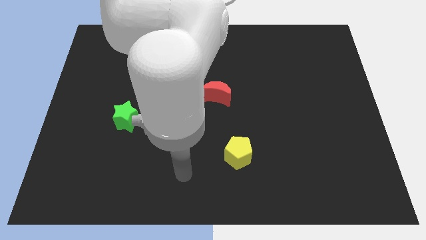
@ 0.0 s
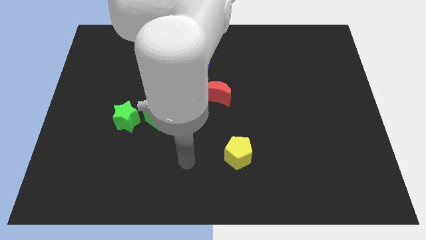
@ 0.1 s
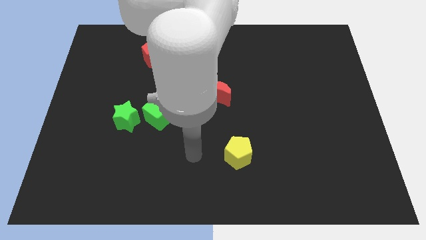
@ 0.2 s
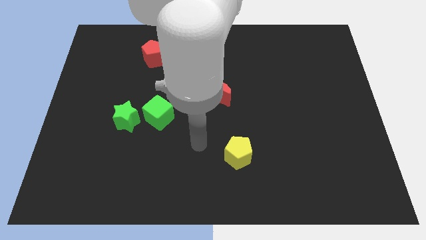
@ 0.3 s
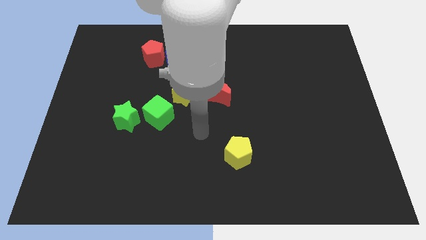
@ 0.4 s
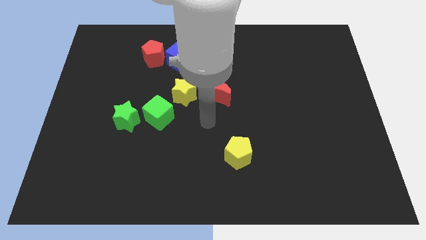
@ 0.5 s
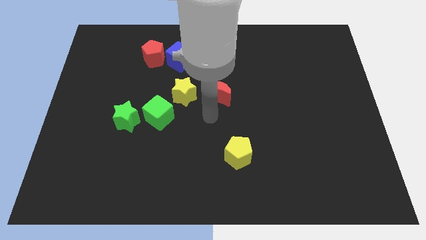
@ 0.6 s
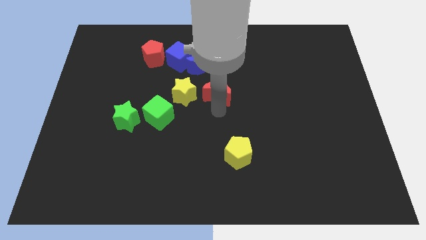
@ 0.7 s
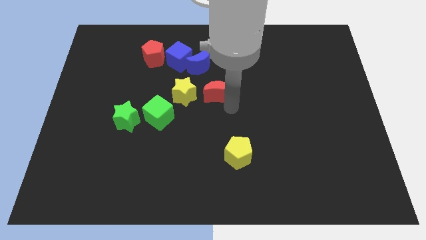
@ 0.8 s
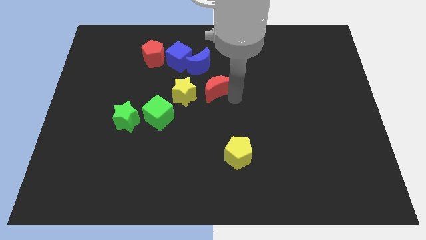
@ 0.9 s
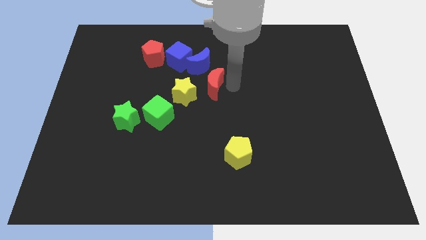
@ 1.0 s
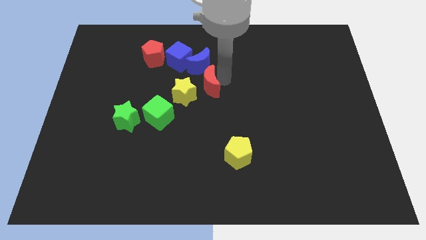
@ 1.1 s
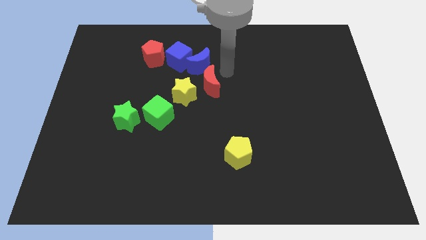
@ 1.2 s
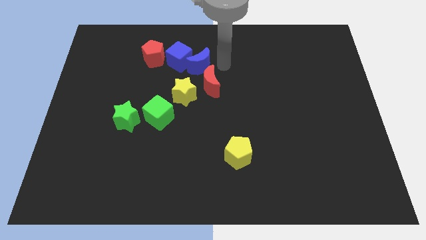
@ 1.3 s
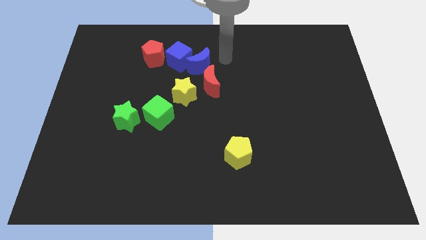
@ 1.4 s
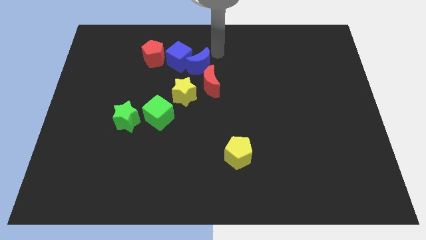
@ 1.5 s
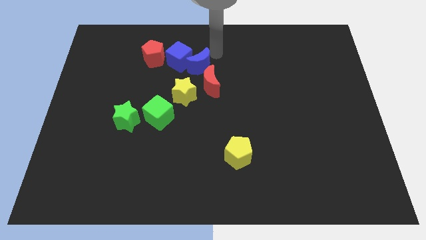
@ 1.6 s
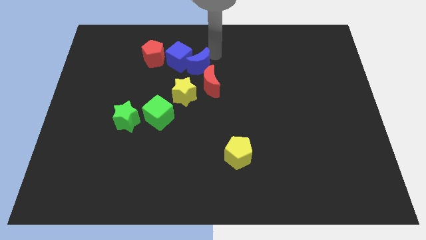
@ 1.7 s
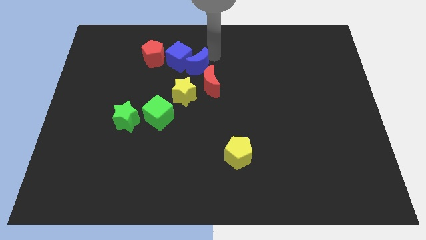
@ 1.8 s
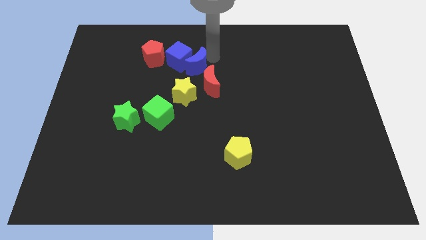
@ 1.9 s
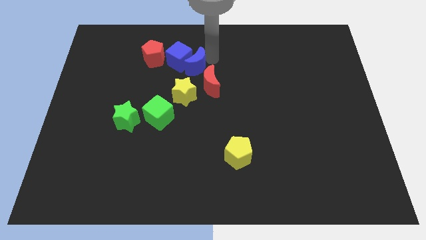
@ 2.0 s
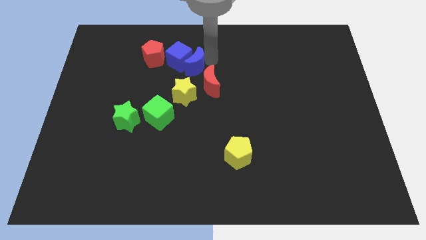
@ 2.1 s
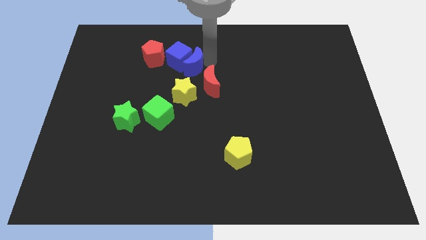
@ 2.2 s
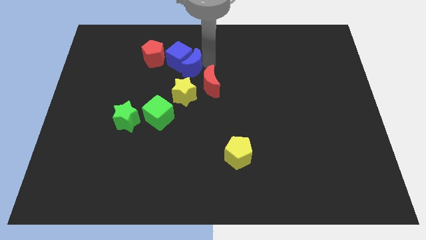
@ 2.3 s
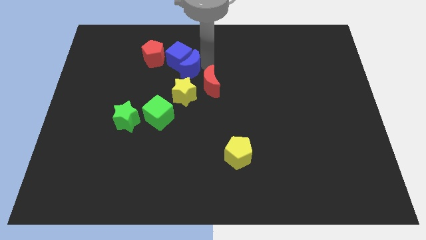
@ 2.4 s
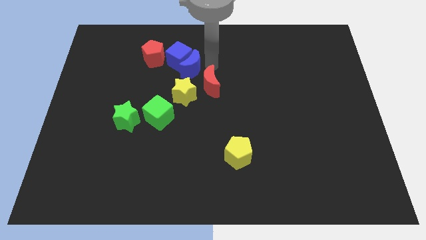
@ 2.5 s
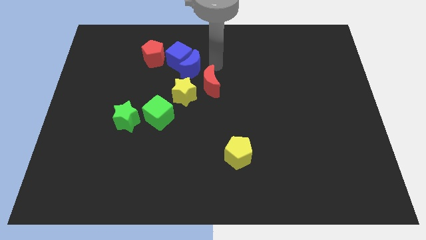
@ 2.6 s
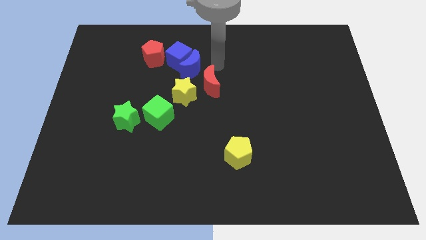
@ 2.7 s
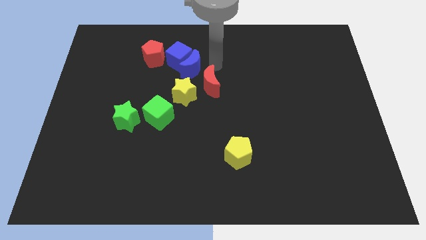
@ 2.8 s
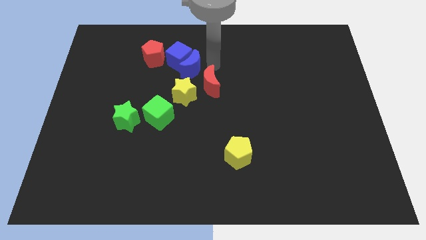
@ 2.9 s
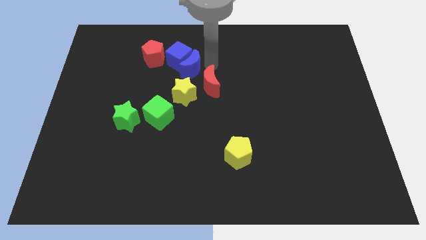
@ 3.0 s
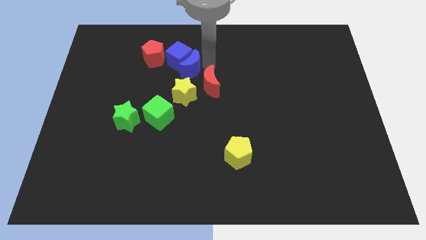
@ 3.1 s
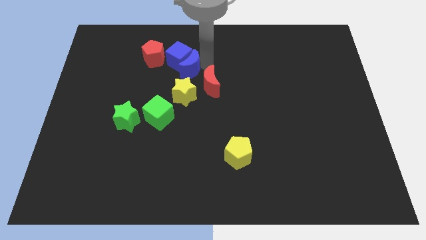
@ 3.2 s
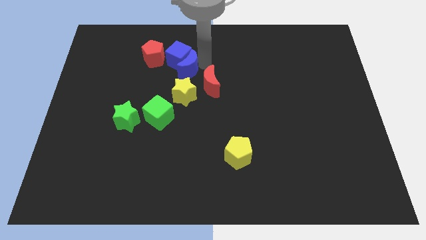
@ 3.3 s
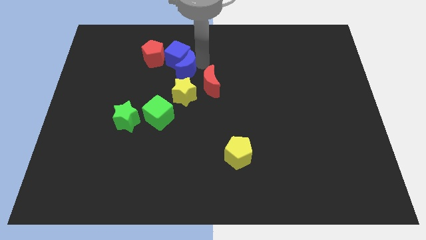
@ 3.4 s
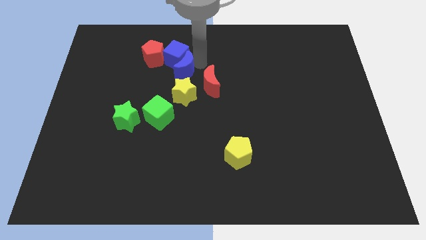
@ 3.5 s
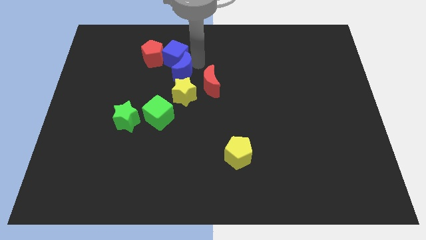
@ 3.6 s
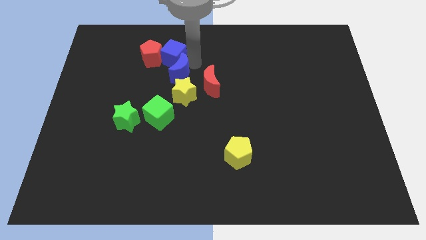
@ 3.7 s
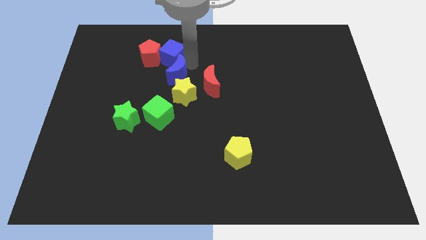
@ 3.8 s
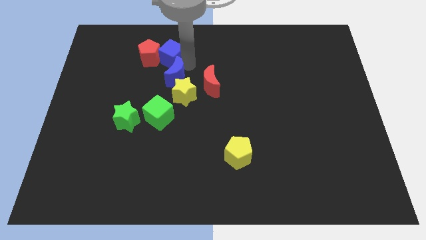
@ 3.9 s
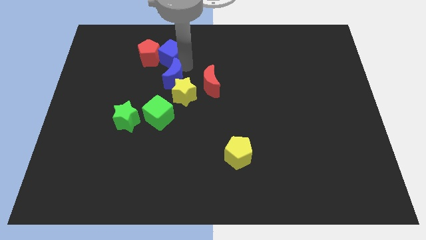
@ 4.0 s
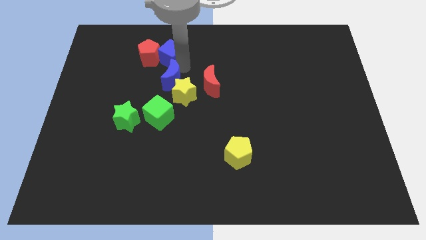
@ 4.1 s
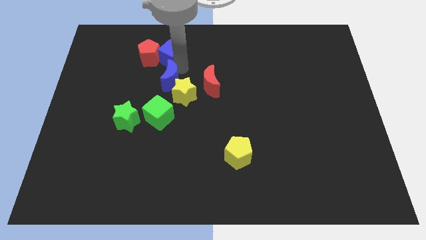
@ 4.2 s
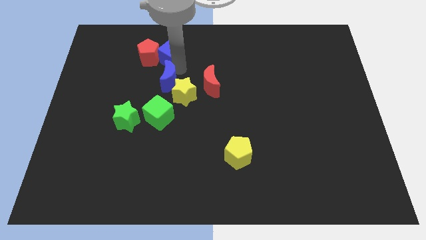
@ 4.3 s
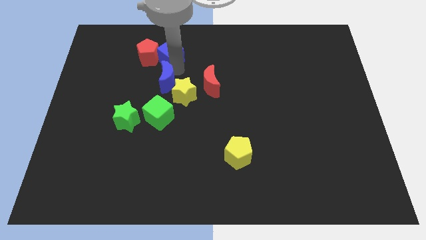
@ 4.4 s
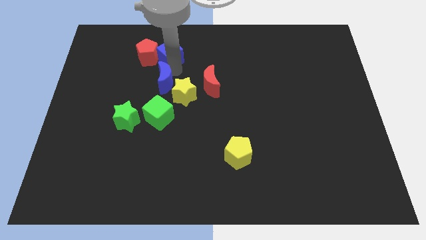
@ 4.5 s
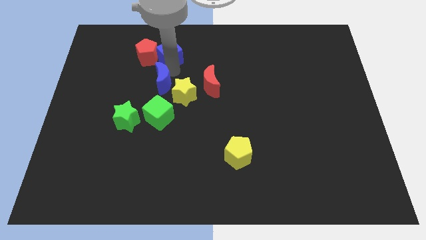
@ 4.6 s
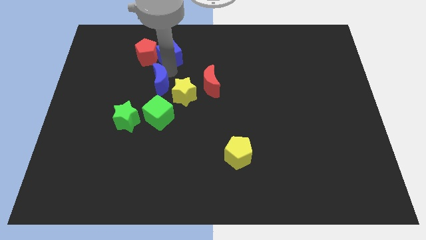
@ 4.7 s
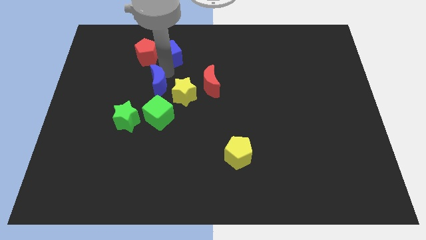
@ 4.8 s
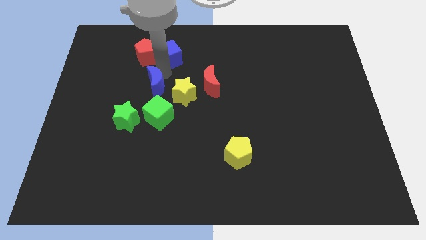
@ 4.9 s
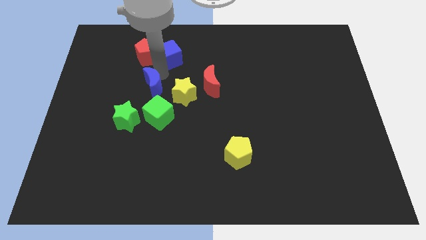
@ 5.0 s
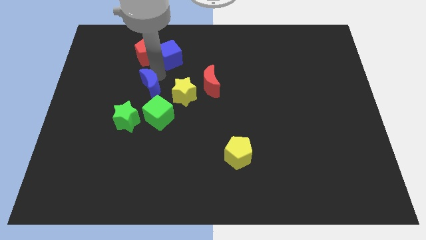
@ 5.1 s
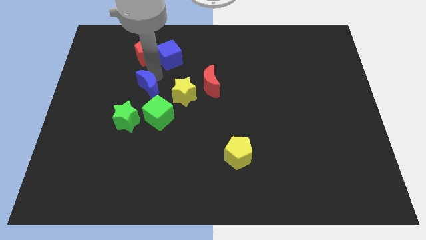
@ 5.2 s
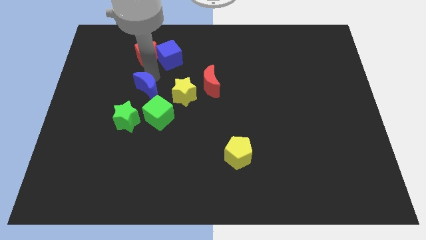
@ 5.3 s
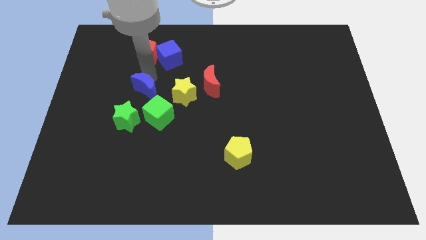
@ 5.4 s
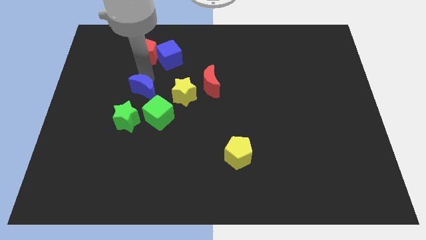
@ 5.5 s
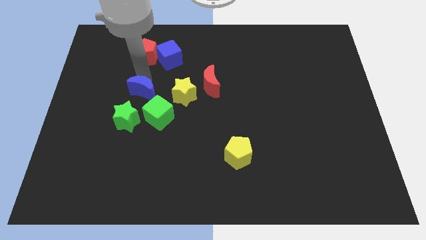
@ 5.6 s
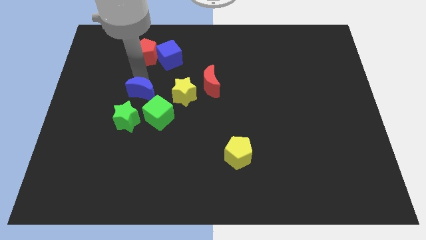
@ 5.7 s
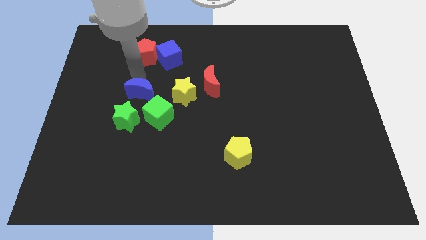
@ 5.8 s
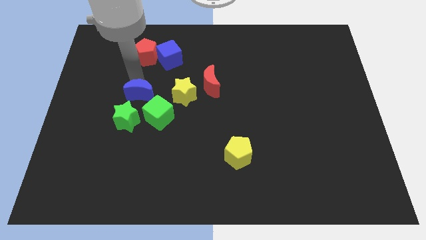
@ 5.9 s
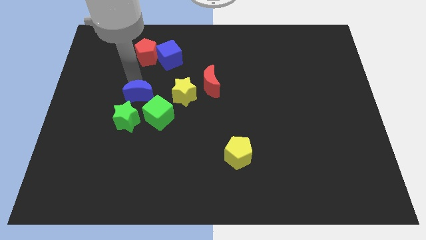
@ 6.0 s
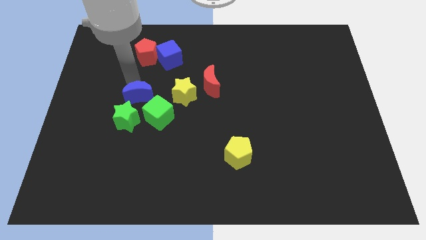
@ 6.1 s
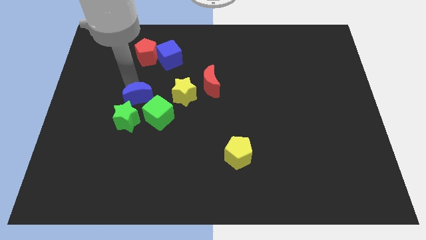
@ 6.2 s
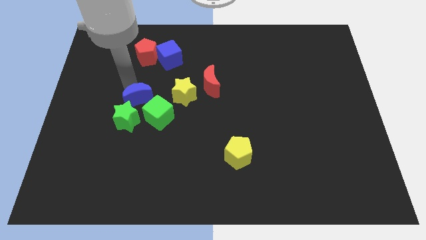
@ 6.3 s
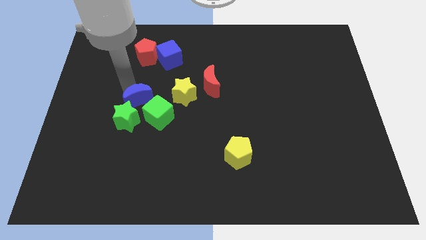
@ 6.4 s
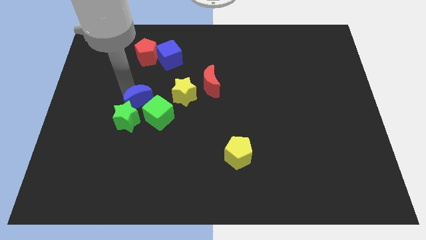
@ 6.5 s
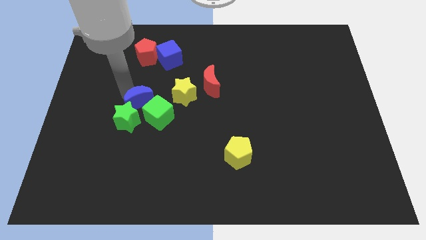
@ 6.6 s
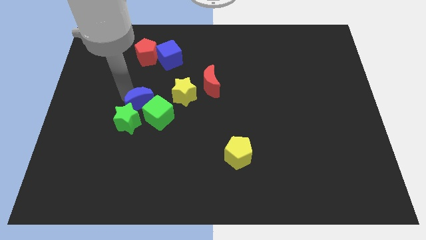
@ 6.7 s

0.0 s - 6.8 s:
push the blue moon to the green cube

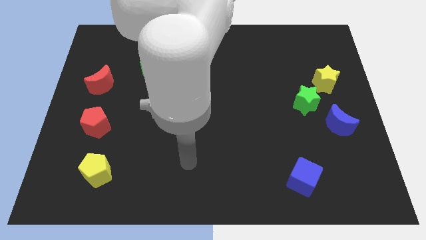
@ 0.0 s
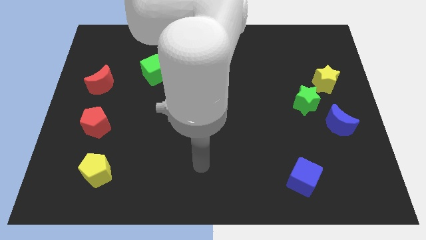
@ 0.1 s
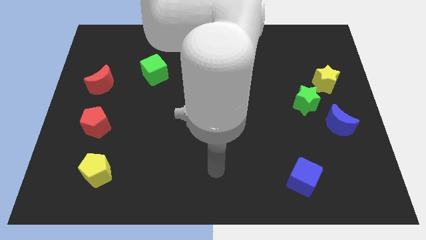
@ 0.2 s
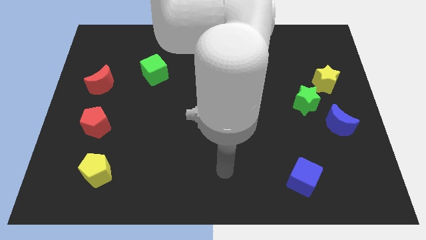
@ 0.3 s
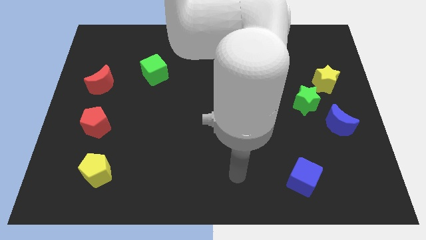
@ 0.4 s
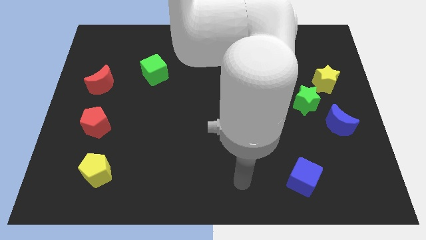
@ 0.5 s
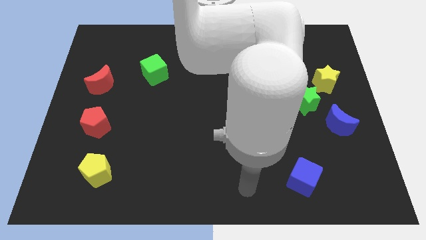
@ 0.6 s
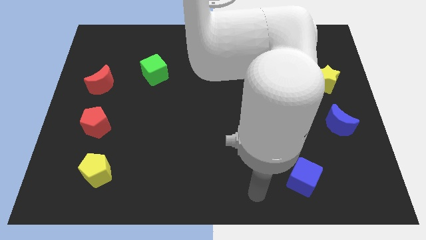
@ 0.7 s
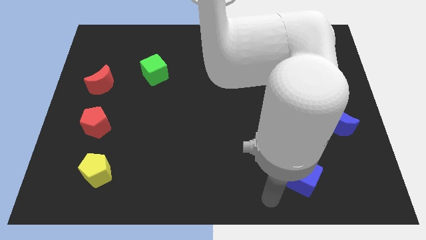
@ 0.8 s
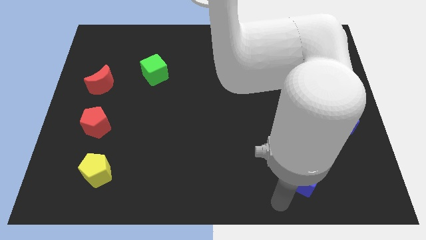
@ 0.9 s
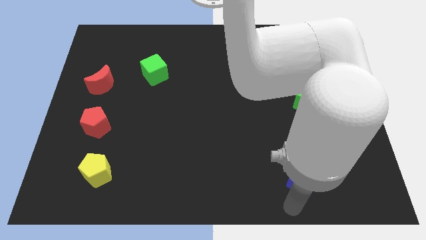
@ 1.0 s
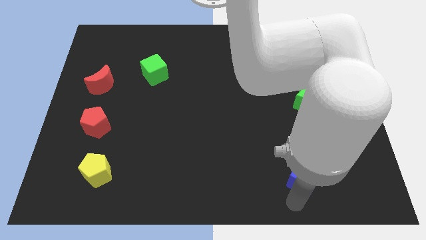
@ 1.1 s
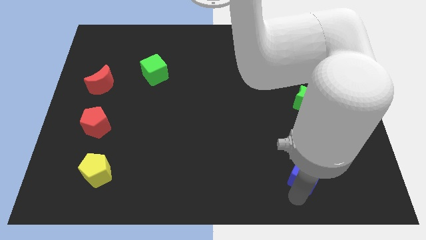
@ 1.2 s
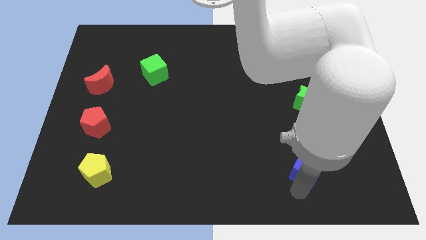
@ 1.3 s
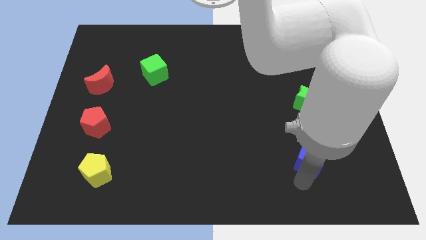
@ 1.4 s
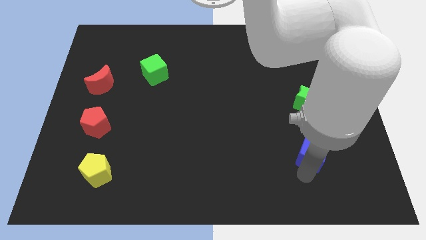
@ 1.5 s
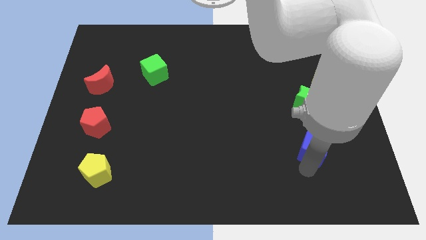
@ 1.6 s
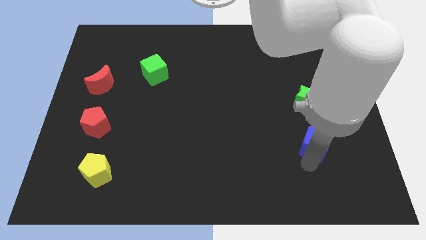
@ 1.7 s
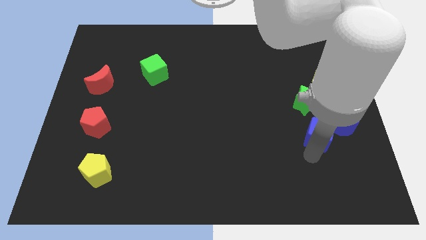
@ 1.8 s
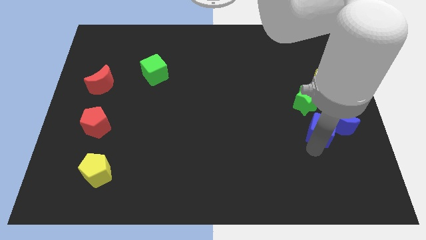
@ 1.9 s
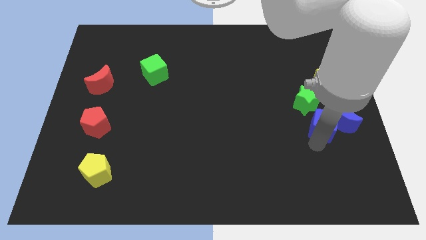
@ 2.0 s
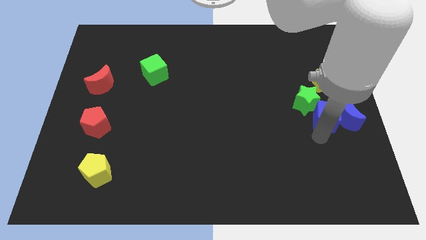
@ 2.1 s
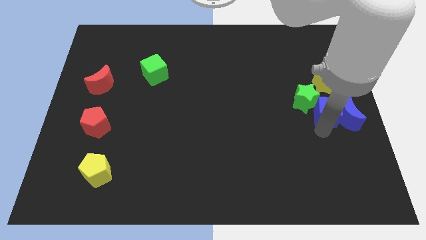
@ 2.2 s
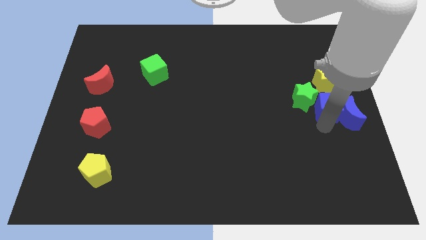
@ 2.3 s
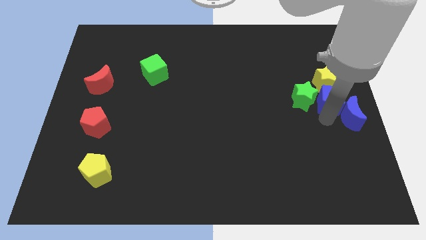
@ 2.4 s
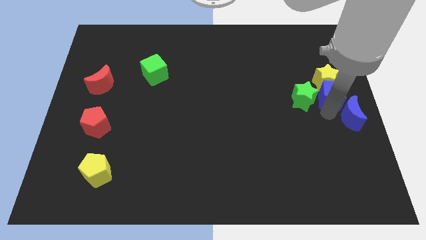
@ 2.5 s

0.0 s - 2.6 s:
push the blue cube close to the yellow star
